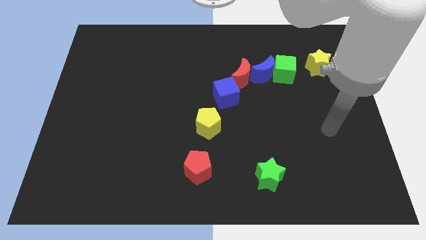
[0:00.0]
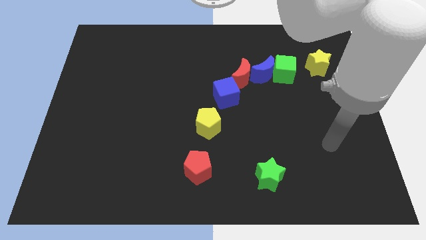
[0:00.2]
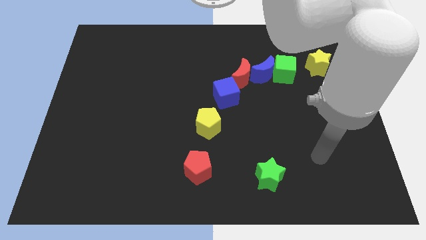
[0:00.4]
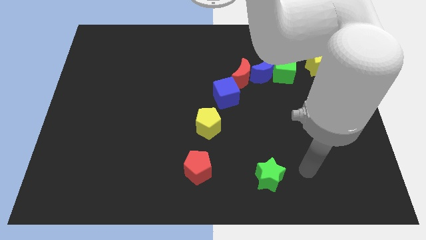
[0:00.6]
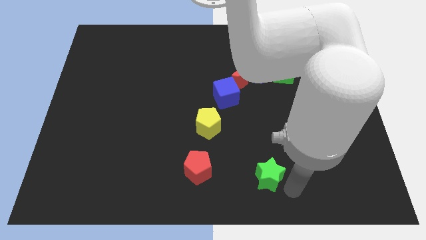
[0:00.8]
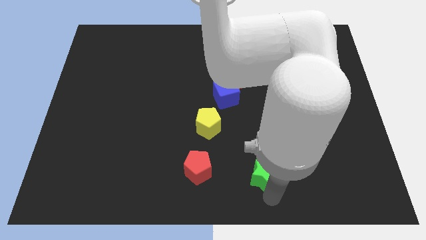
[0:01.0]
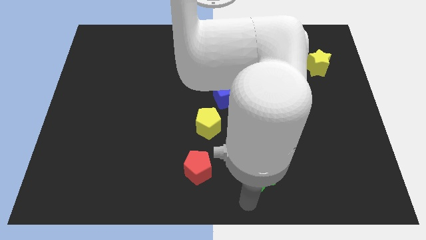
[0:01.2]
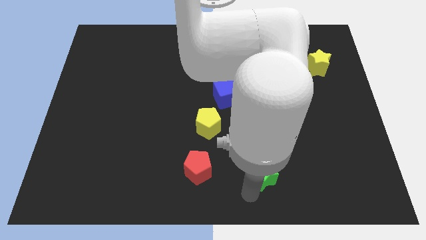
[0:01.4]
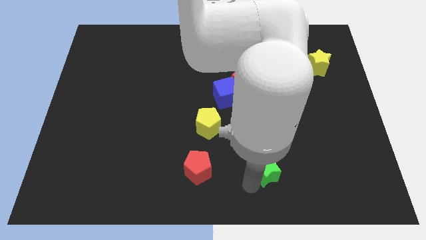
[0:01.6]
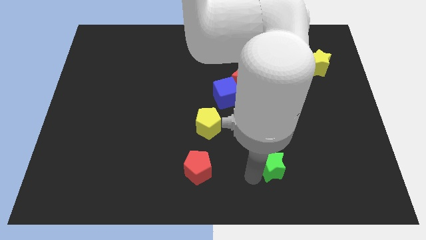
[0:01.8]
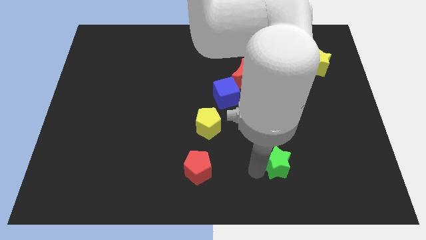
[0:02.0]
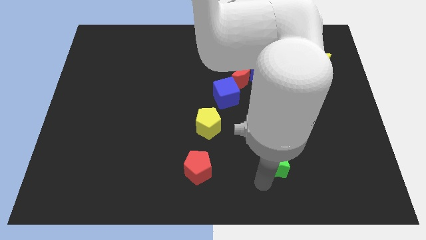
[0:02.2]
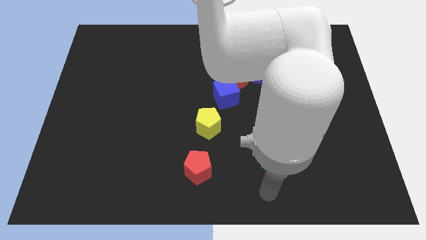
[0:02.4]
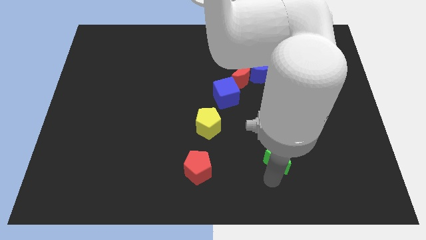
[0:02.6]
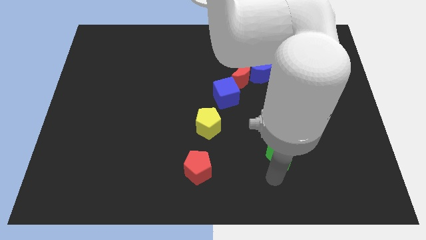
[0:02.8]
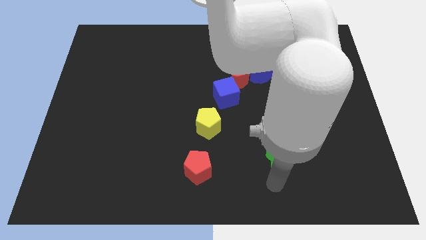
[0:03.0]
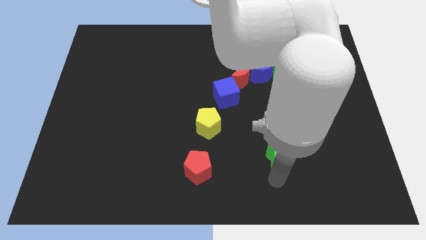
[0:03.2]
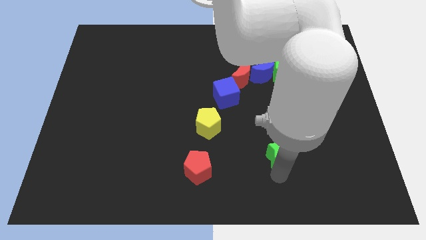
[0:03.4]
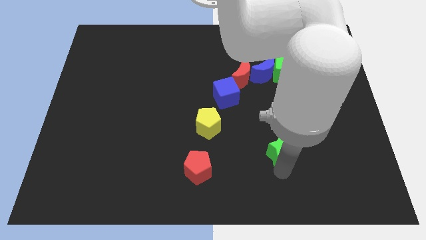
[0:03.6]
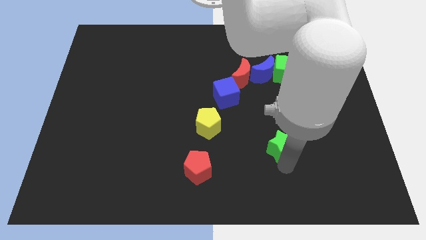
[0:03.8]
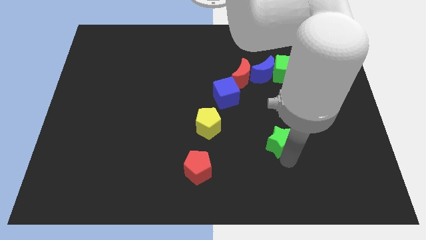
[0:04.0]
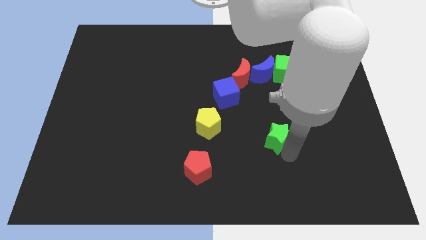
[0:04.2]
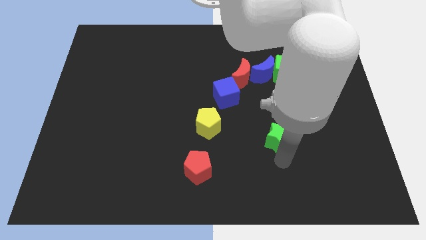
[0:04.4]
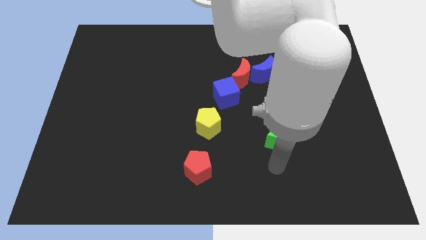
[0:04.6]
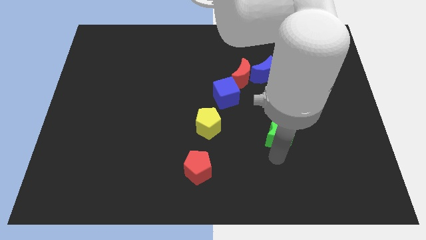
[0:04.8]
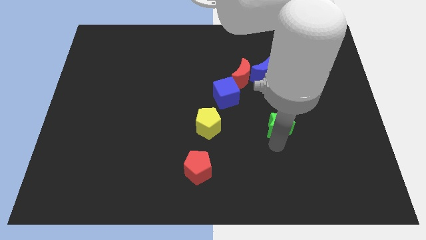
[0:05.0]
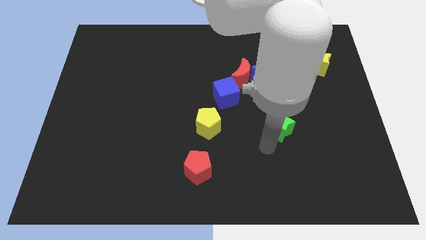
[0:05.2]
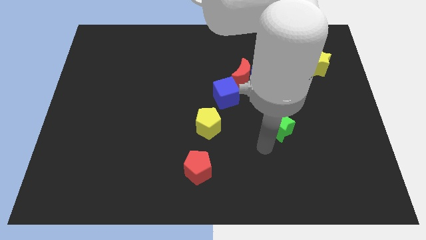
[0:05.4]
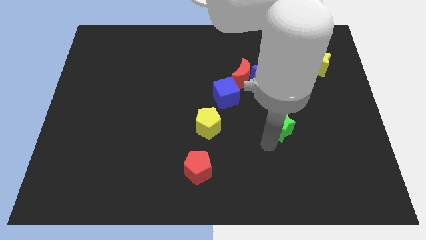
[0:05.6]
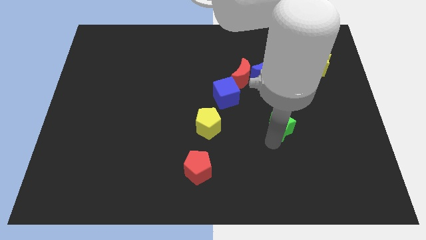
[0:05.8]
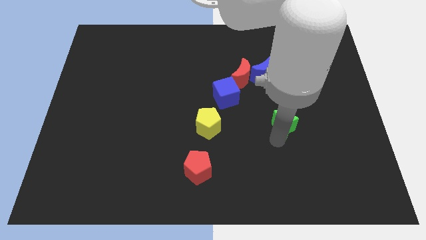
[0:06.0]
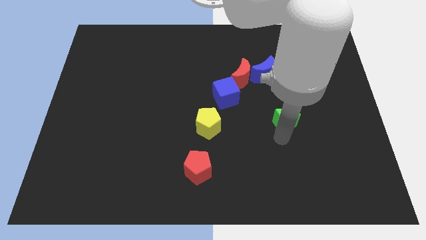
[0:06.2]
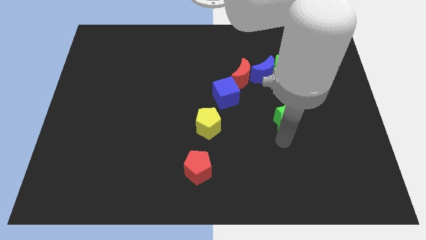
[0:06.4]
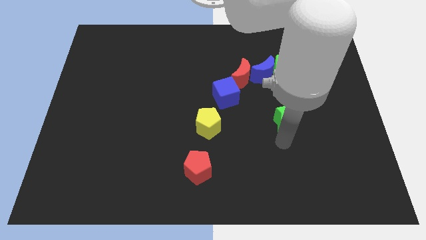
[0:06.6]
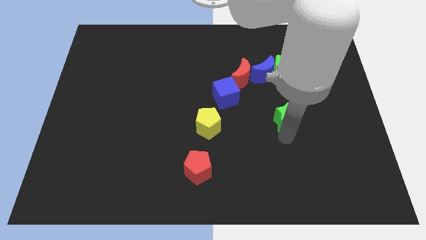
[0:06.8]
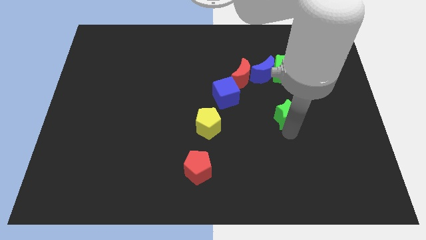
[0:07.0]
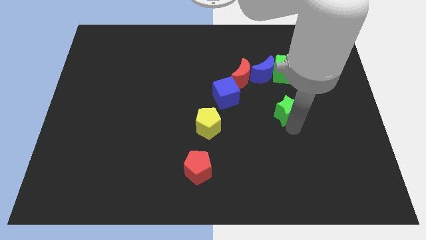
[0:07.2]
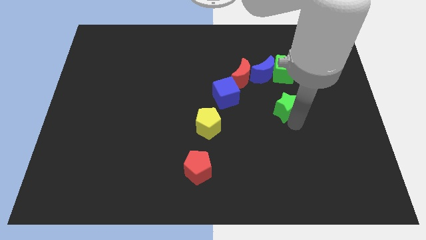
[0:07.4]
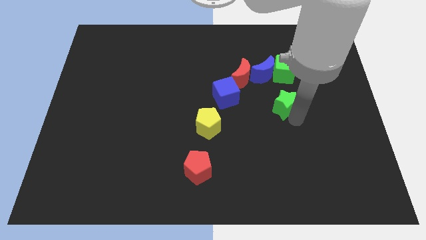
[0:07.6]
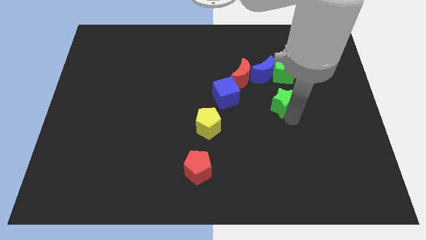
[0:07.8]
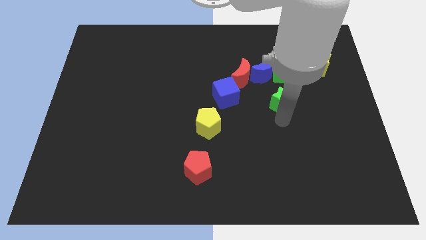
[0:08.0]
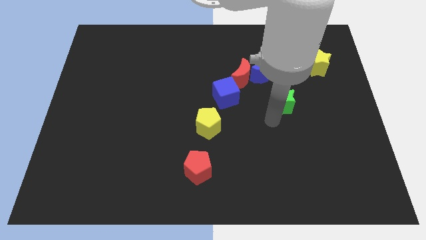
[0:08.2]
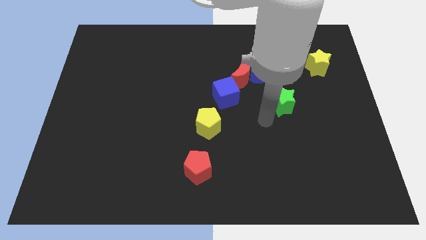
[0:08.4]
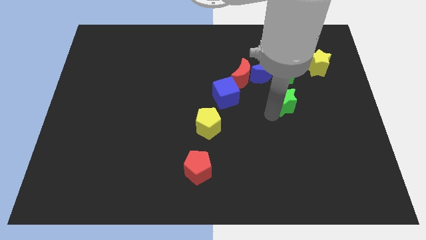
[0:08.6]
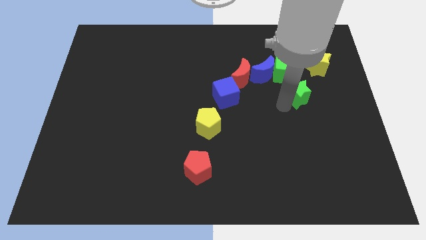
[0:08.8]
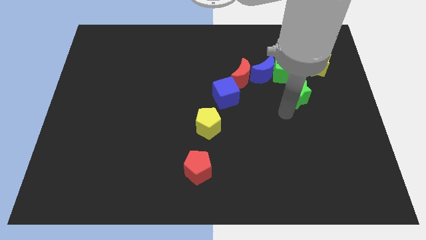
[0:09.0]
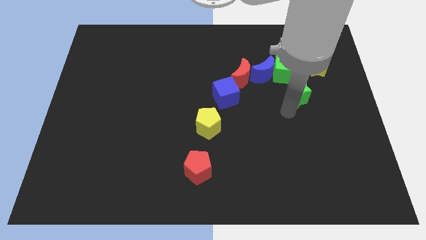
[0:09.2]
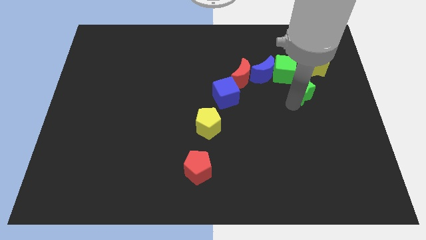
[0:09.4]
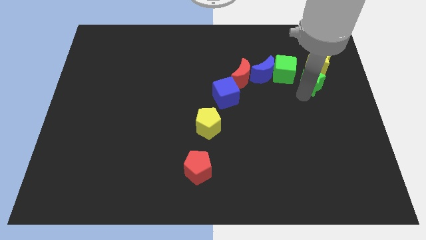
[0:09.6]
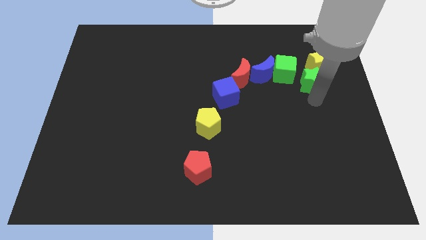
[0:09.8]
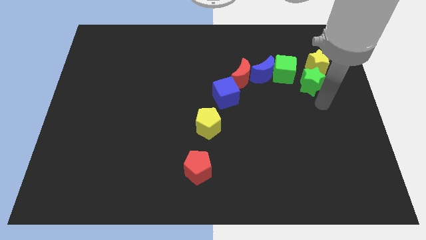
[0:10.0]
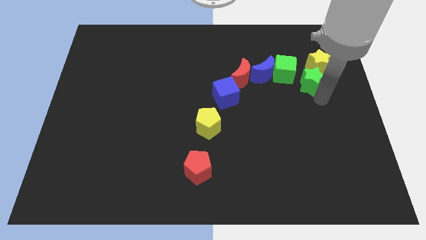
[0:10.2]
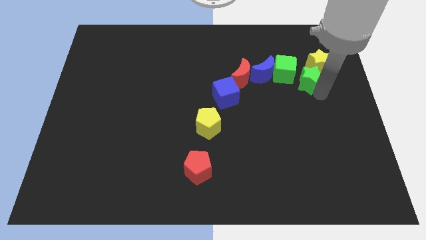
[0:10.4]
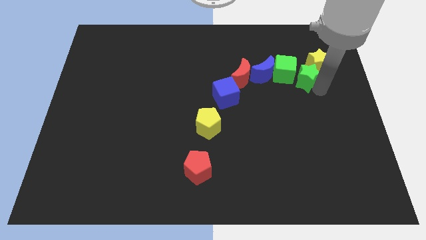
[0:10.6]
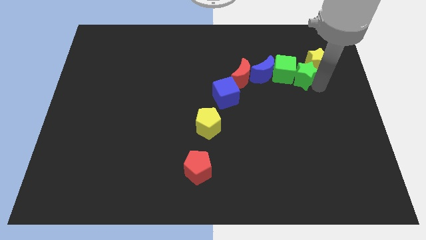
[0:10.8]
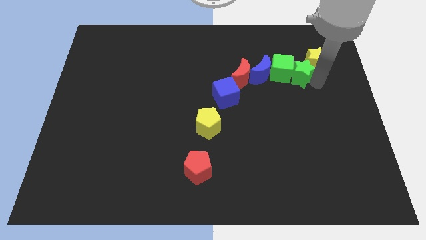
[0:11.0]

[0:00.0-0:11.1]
push the green star to the top right side of the green cube

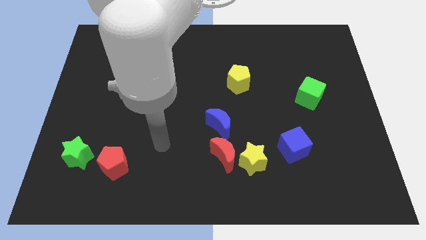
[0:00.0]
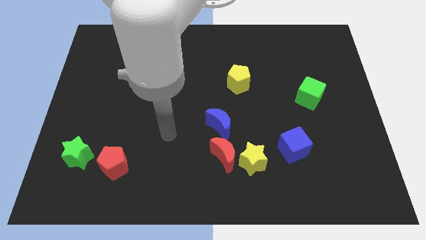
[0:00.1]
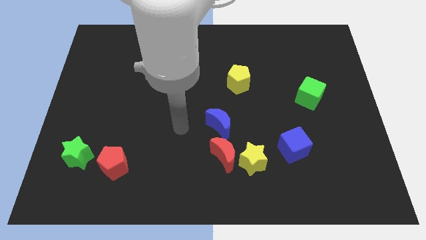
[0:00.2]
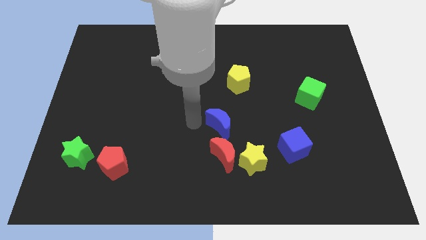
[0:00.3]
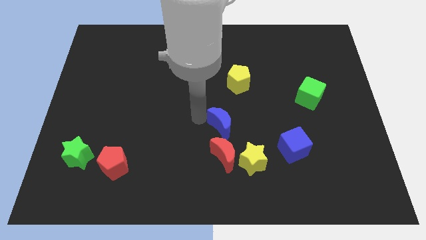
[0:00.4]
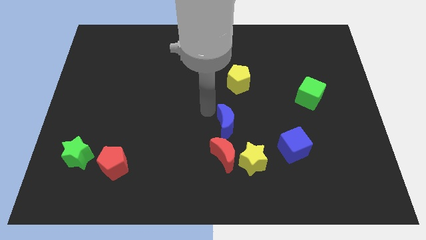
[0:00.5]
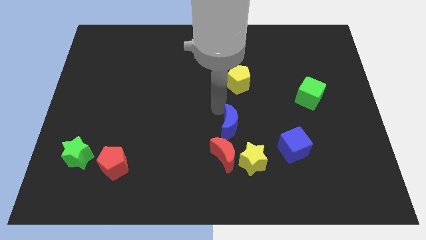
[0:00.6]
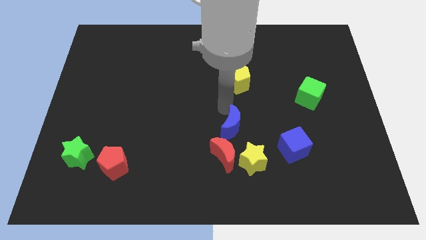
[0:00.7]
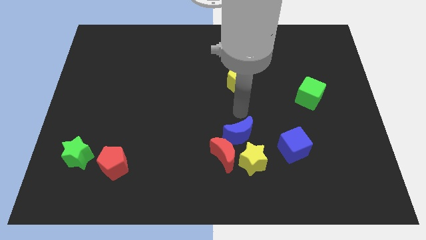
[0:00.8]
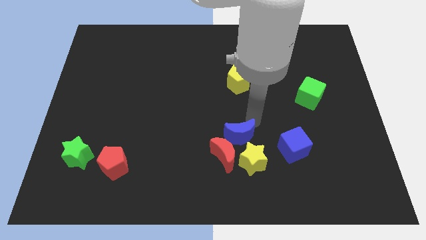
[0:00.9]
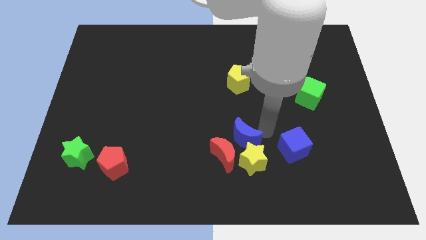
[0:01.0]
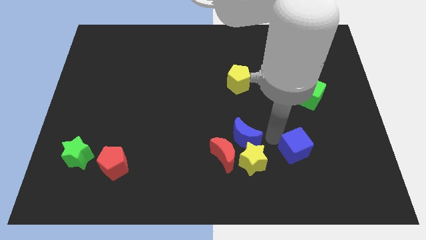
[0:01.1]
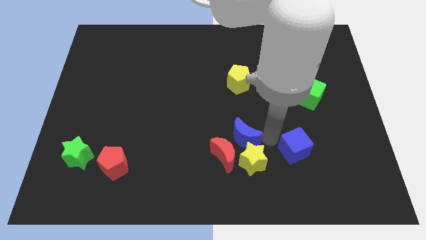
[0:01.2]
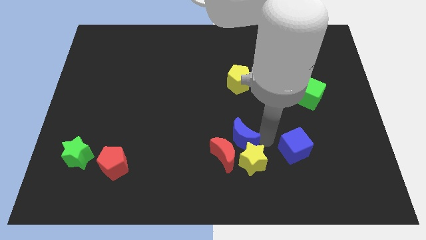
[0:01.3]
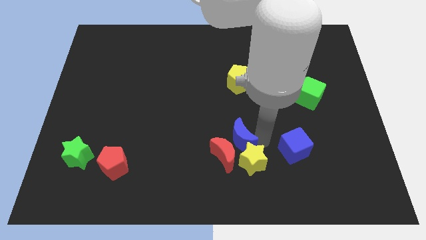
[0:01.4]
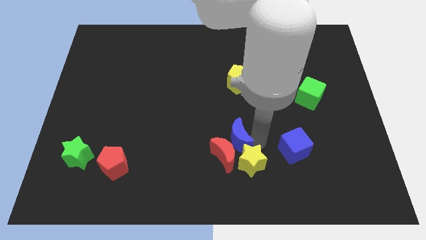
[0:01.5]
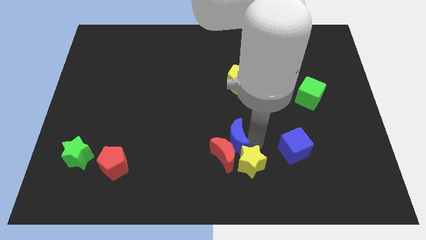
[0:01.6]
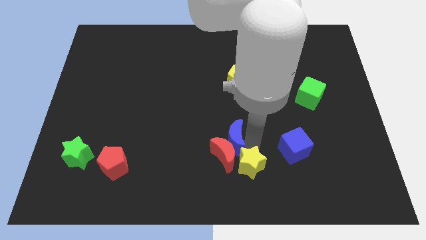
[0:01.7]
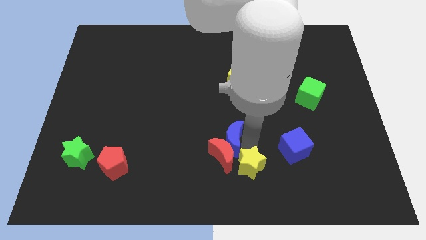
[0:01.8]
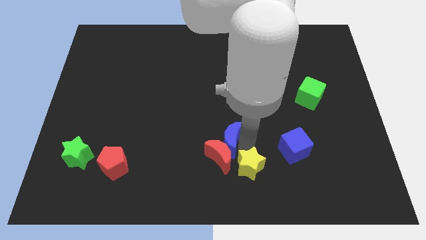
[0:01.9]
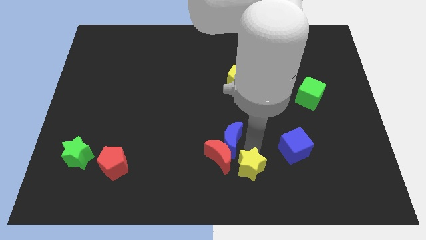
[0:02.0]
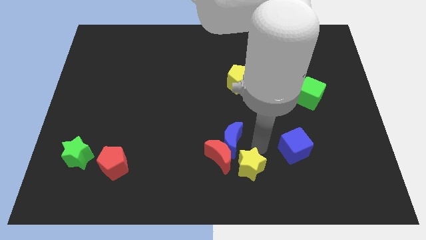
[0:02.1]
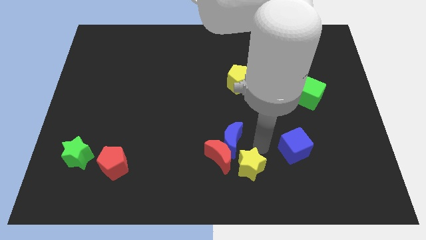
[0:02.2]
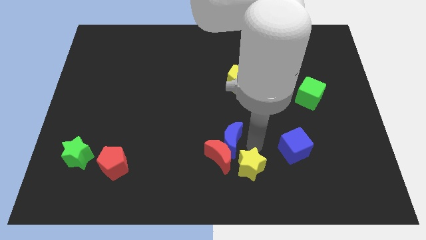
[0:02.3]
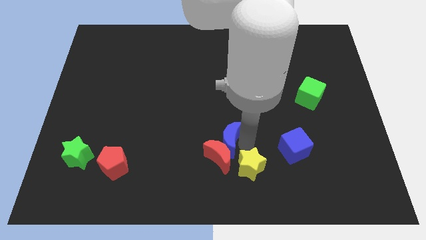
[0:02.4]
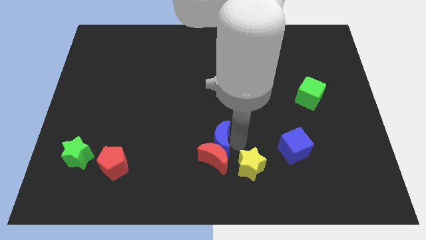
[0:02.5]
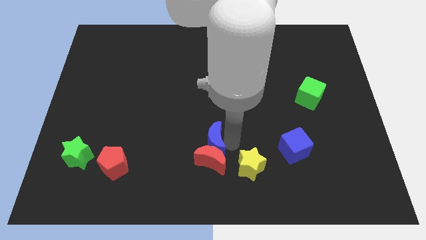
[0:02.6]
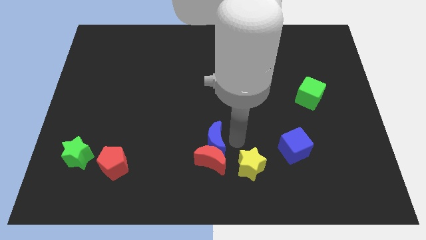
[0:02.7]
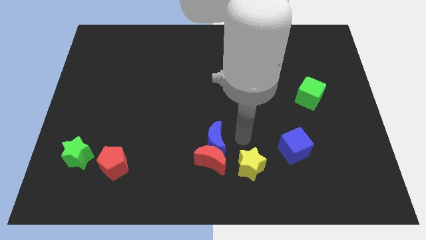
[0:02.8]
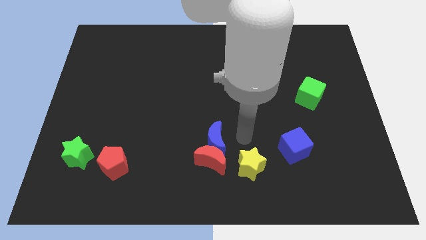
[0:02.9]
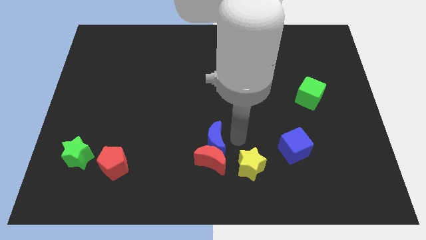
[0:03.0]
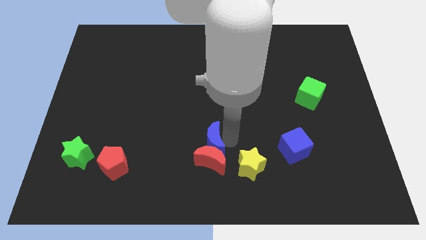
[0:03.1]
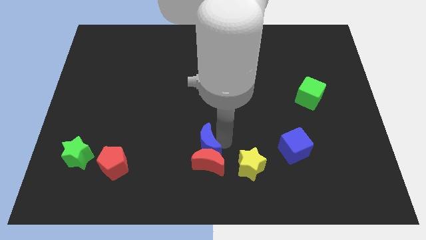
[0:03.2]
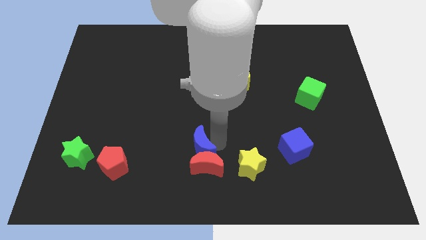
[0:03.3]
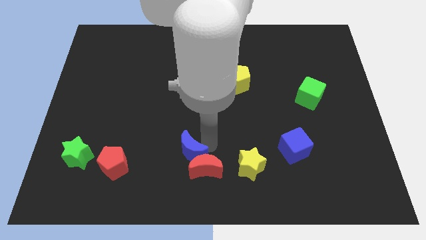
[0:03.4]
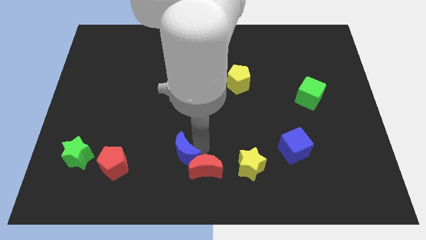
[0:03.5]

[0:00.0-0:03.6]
move the blue moon to the right side of the red pentagon
